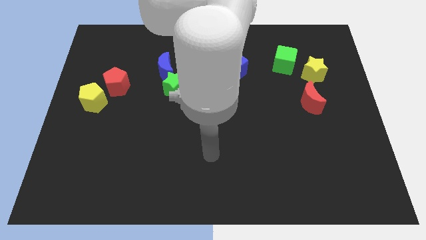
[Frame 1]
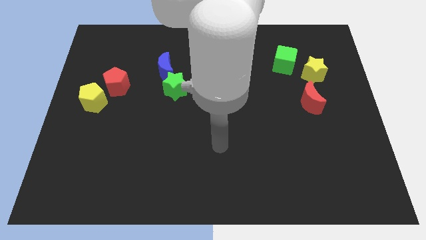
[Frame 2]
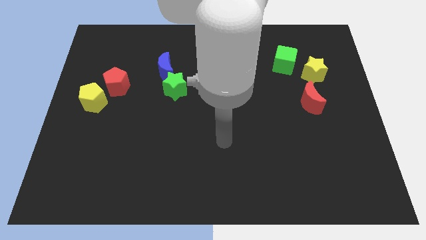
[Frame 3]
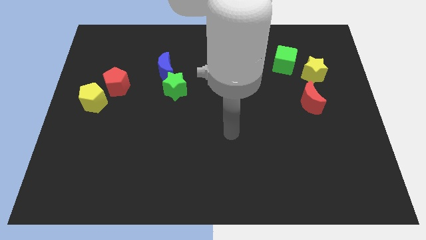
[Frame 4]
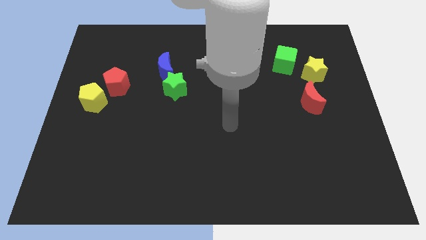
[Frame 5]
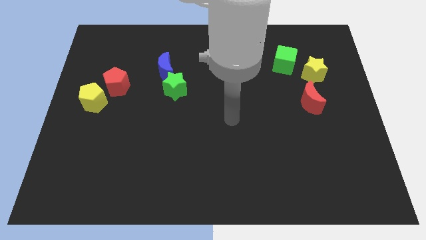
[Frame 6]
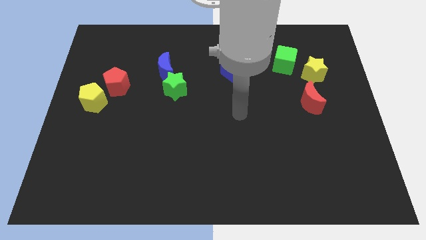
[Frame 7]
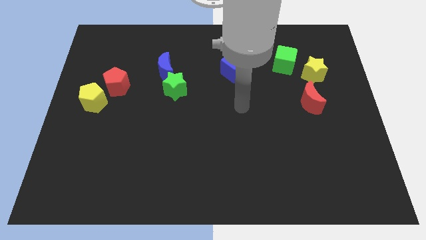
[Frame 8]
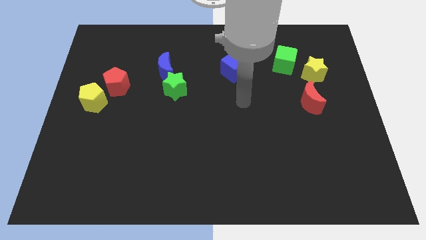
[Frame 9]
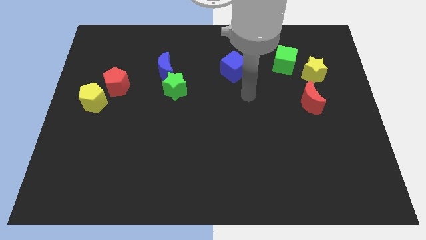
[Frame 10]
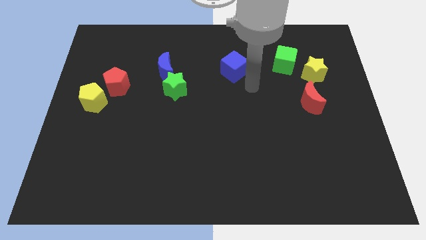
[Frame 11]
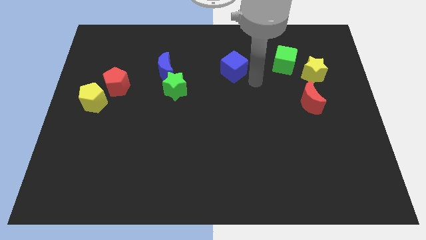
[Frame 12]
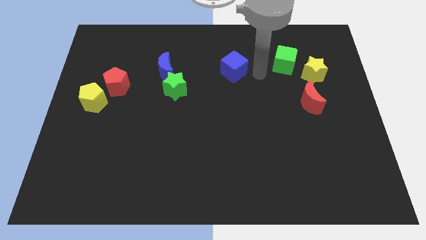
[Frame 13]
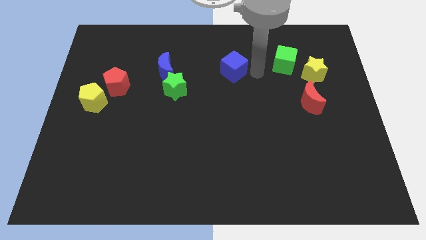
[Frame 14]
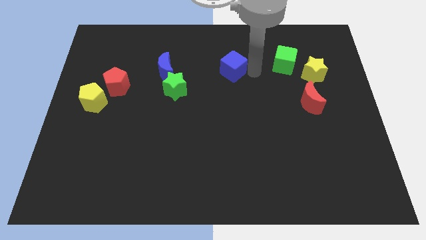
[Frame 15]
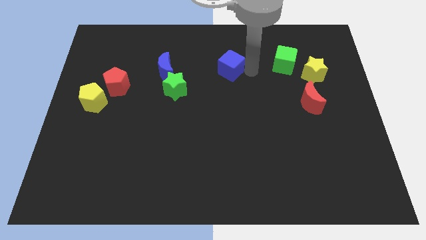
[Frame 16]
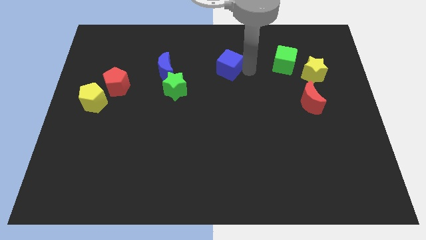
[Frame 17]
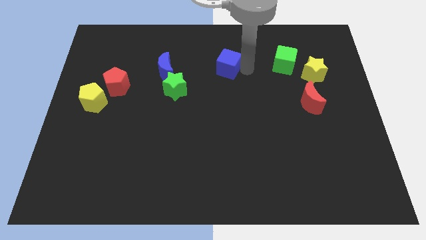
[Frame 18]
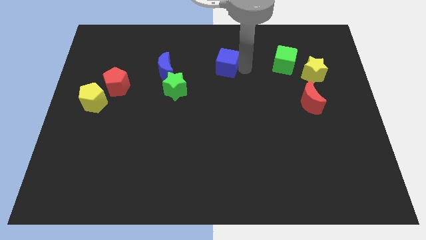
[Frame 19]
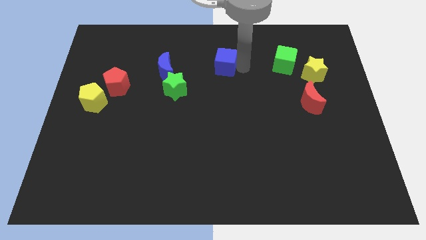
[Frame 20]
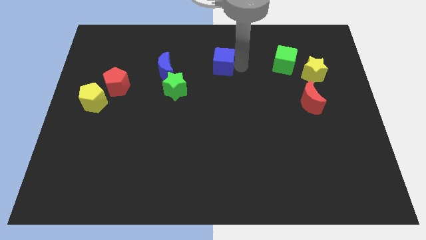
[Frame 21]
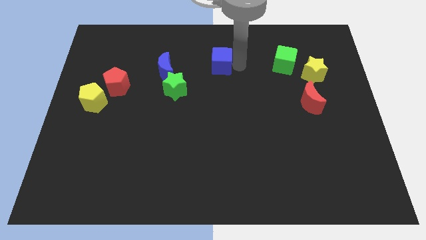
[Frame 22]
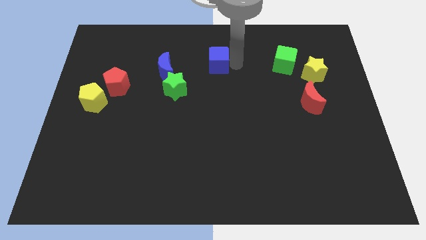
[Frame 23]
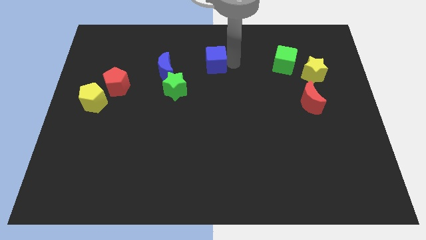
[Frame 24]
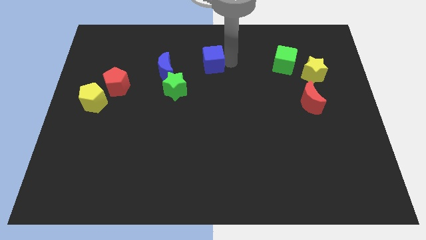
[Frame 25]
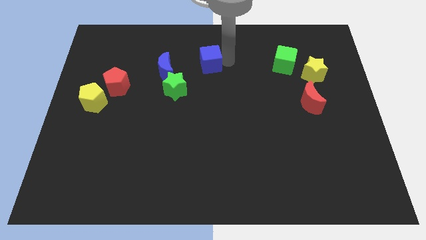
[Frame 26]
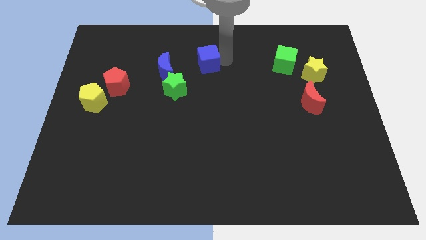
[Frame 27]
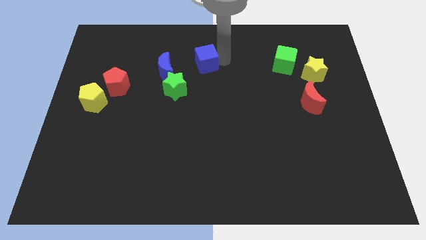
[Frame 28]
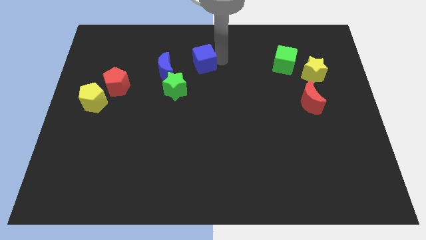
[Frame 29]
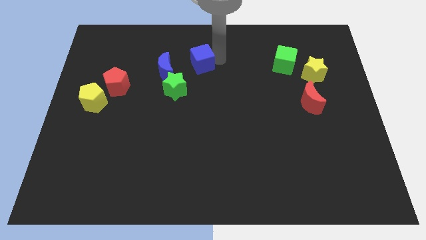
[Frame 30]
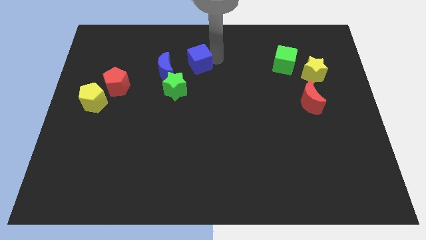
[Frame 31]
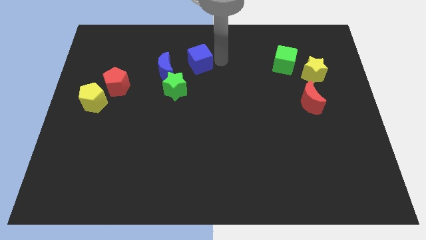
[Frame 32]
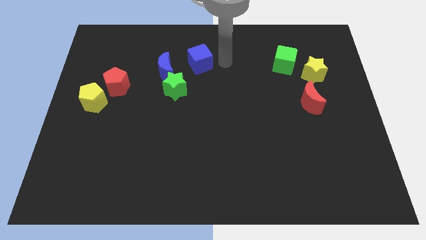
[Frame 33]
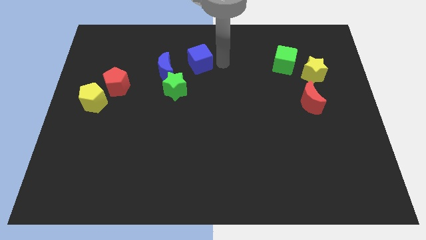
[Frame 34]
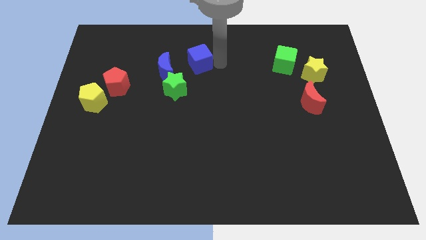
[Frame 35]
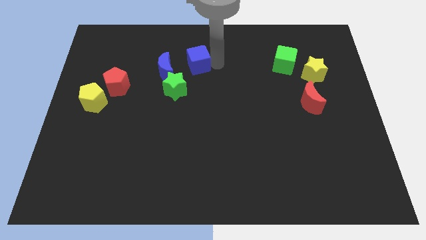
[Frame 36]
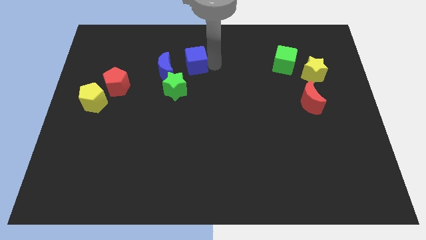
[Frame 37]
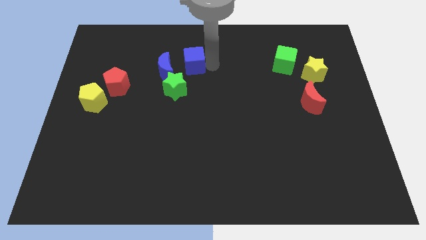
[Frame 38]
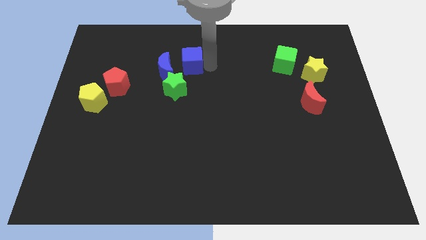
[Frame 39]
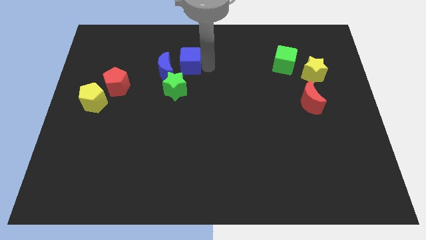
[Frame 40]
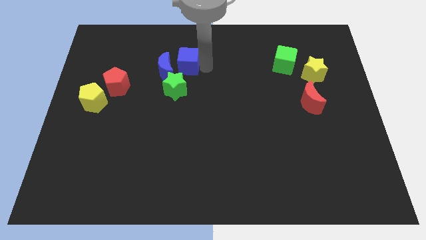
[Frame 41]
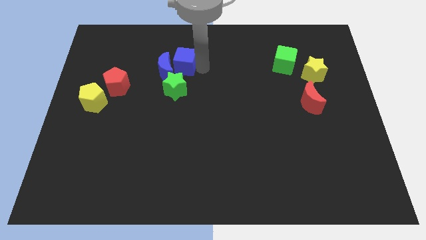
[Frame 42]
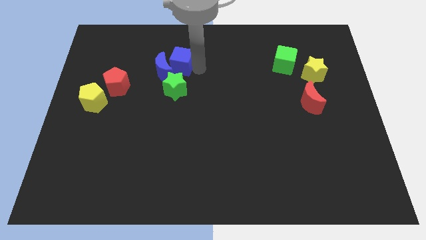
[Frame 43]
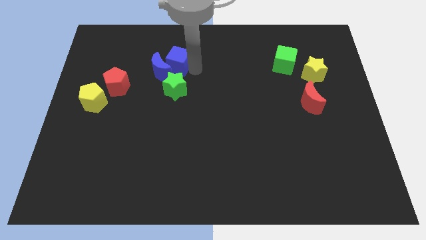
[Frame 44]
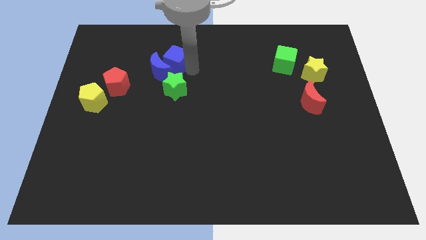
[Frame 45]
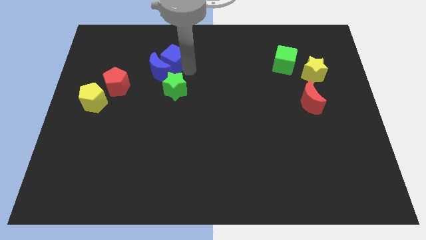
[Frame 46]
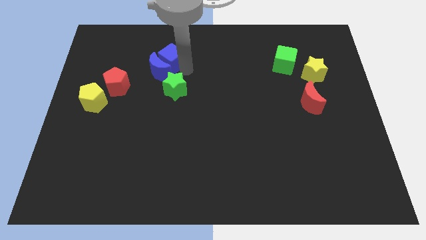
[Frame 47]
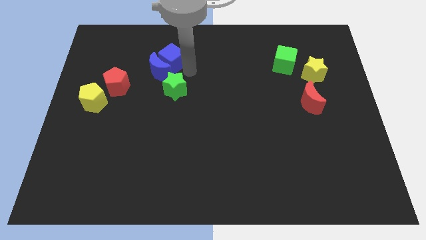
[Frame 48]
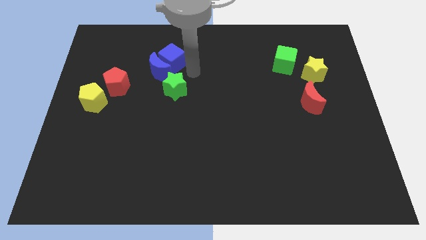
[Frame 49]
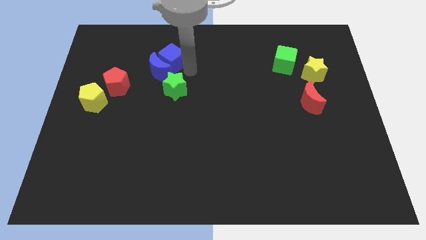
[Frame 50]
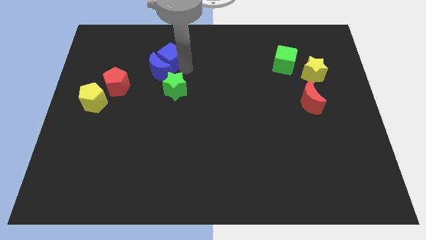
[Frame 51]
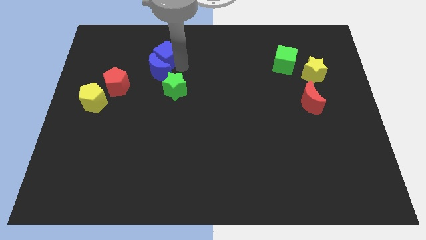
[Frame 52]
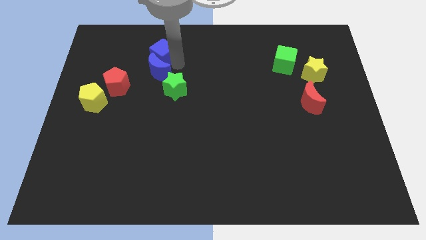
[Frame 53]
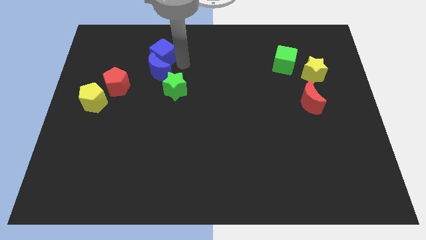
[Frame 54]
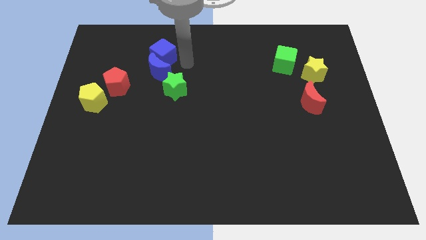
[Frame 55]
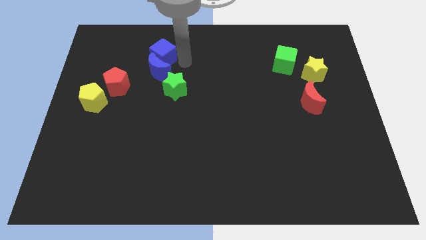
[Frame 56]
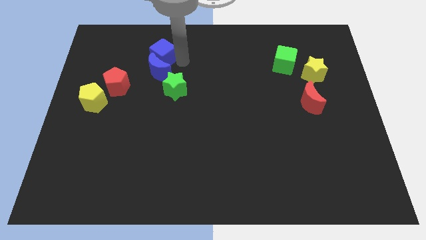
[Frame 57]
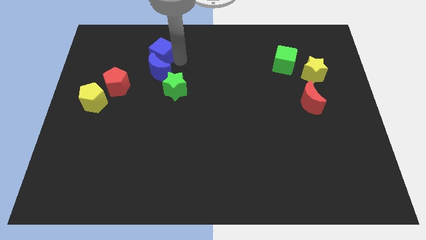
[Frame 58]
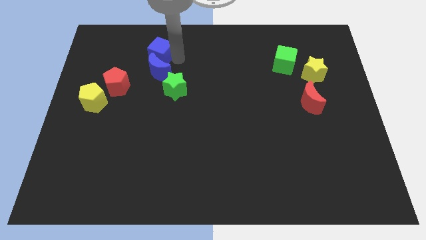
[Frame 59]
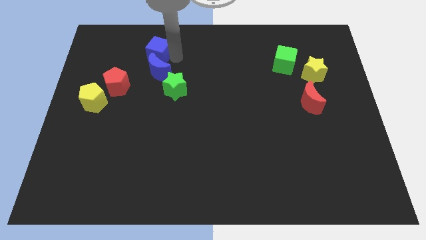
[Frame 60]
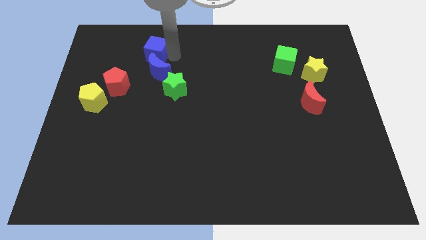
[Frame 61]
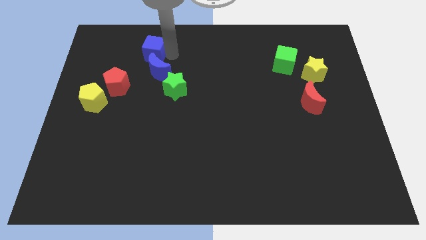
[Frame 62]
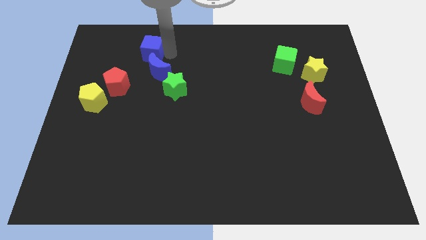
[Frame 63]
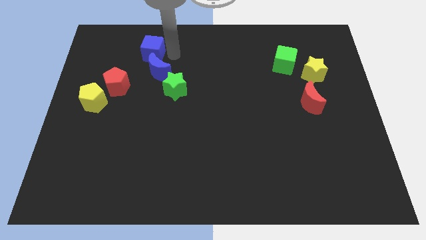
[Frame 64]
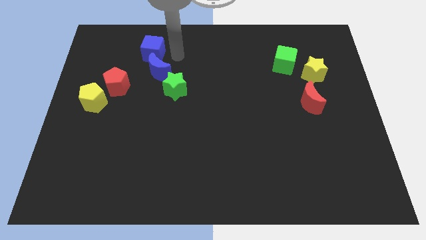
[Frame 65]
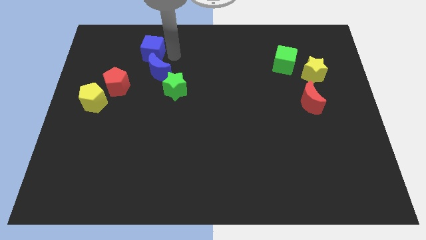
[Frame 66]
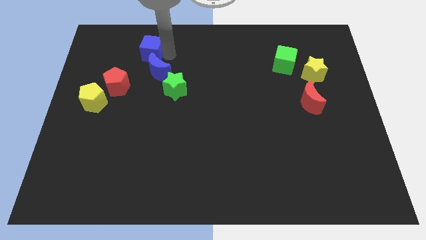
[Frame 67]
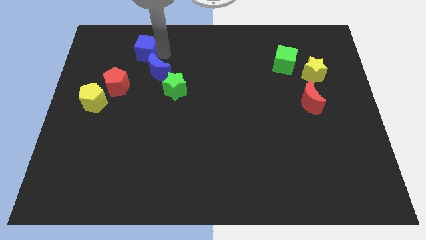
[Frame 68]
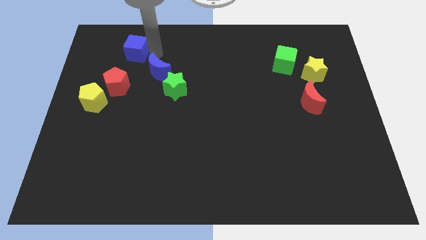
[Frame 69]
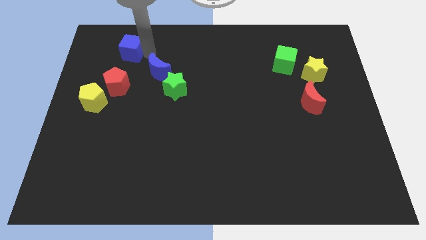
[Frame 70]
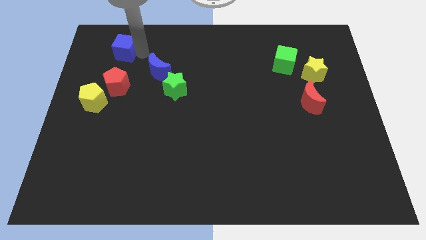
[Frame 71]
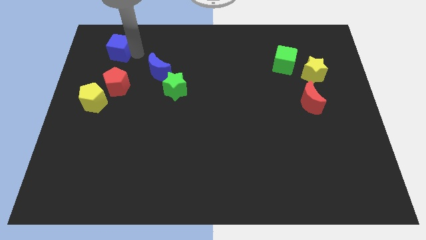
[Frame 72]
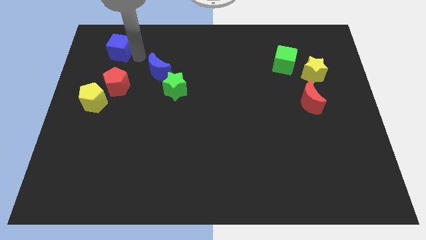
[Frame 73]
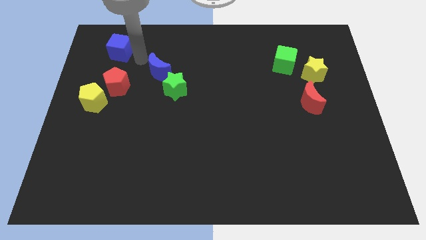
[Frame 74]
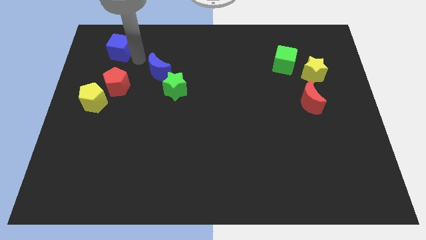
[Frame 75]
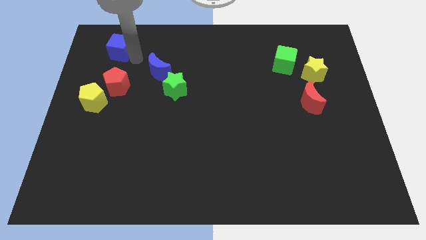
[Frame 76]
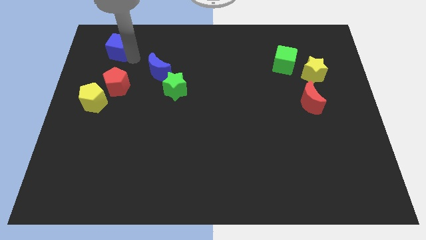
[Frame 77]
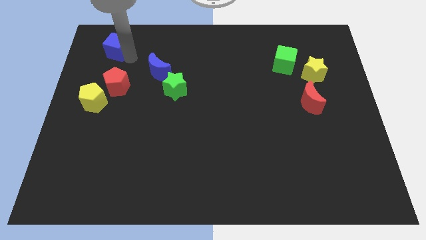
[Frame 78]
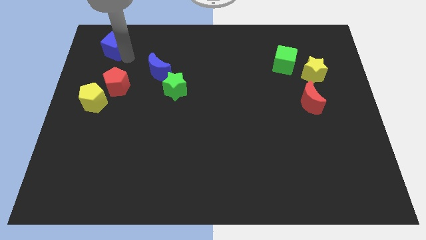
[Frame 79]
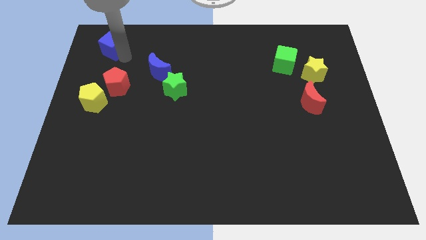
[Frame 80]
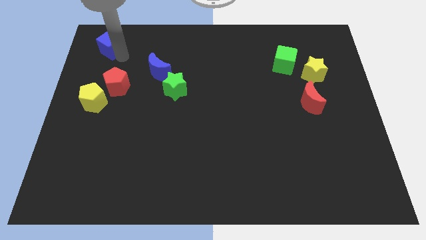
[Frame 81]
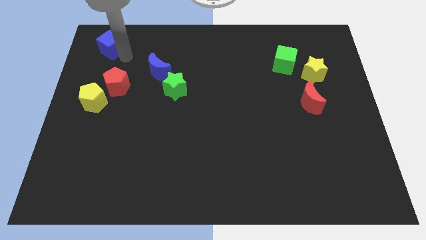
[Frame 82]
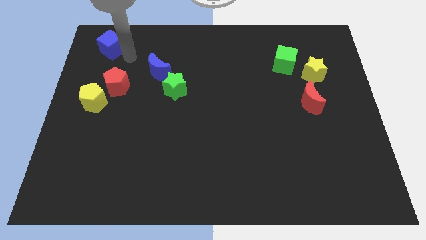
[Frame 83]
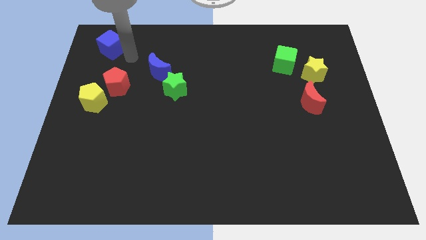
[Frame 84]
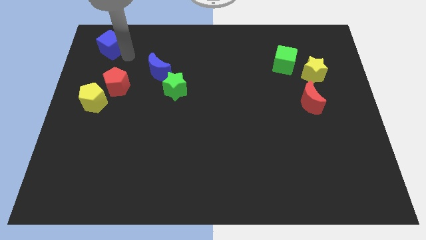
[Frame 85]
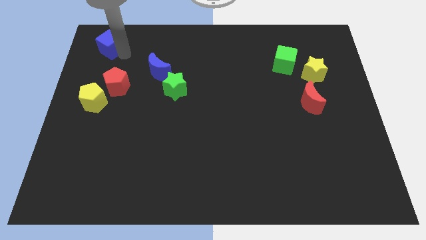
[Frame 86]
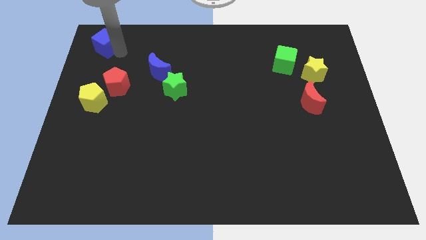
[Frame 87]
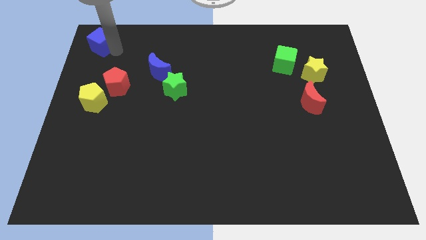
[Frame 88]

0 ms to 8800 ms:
put the blue cube to the top left corner
